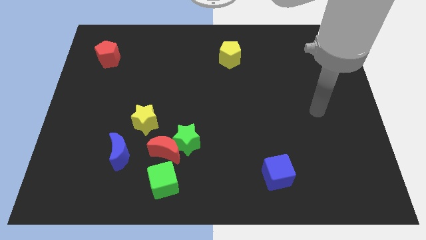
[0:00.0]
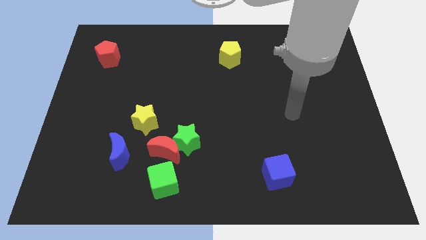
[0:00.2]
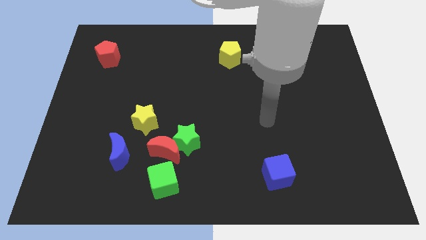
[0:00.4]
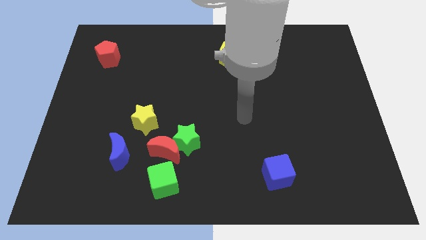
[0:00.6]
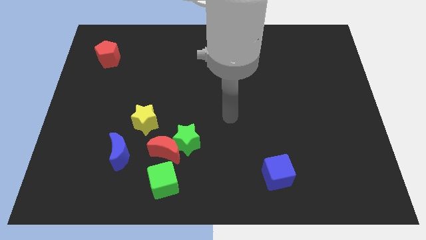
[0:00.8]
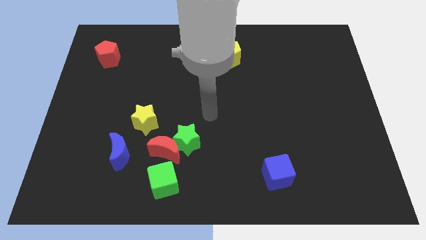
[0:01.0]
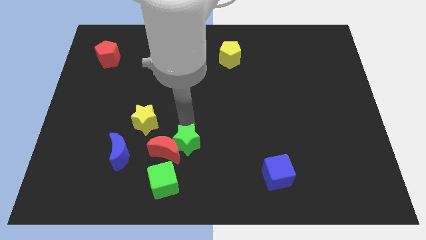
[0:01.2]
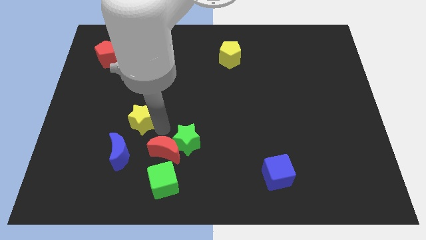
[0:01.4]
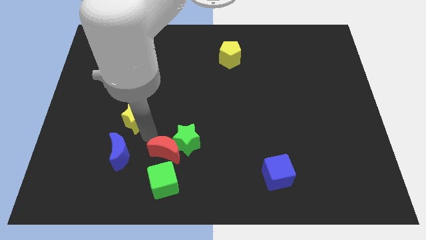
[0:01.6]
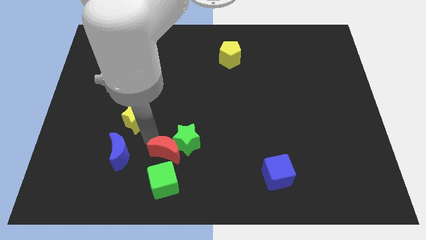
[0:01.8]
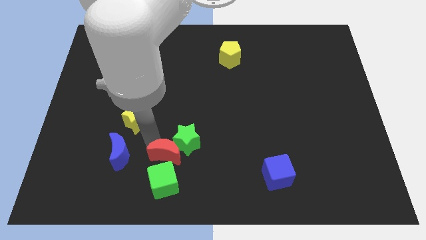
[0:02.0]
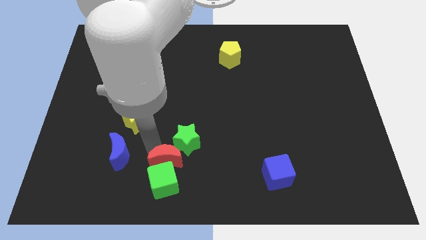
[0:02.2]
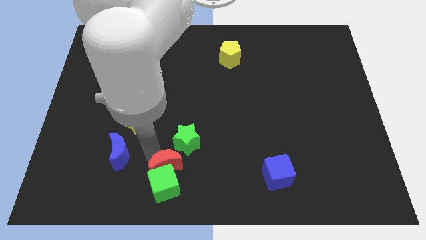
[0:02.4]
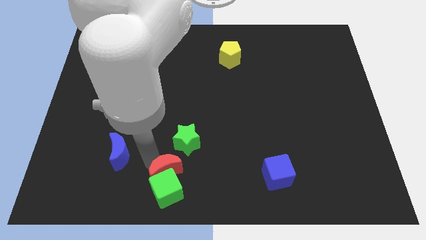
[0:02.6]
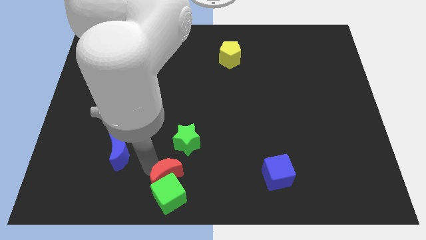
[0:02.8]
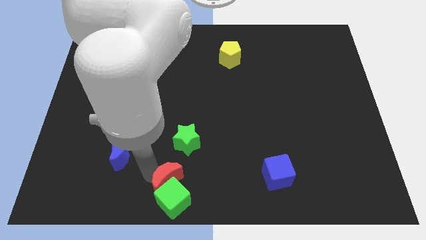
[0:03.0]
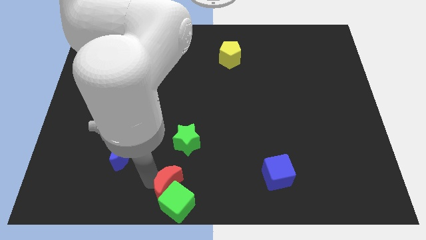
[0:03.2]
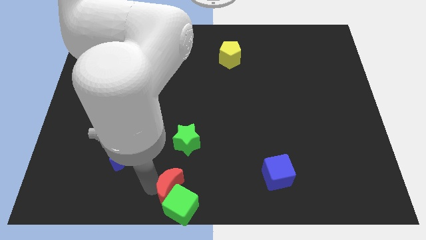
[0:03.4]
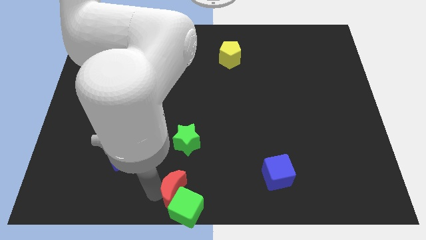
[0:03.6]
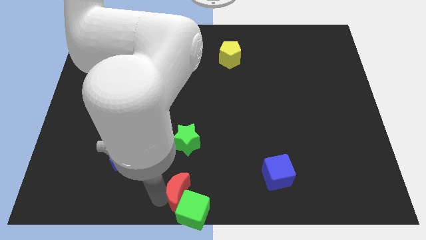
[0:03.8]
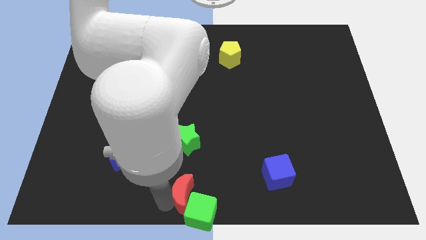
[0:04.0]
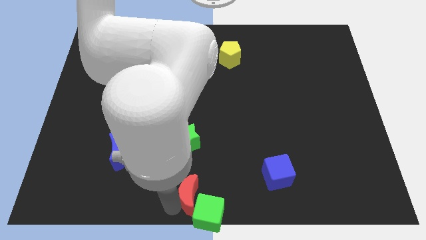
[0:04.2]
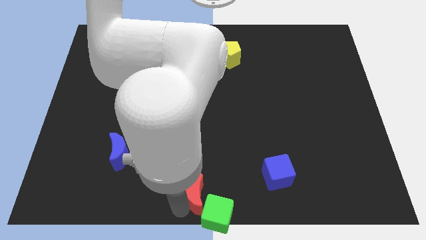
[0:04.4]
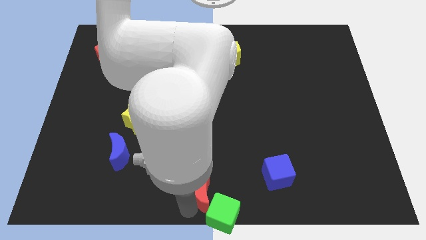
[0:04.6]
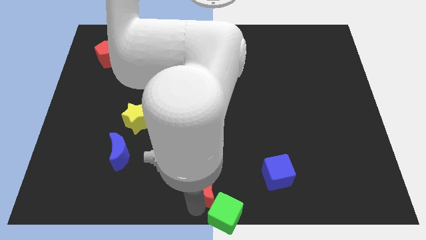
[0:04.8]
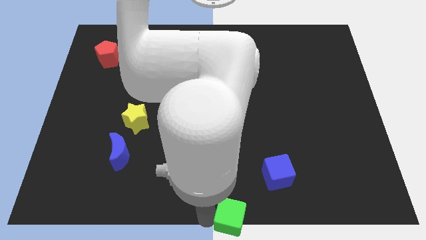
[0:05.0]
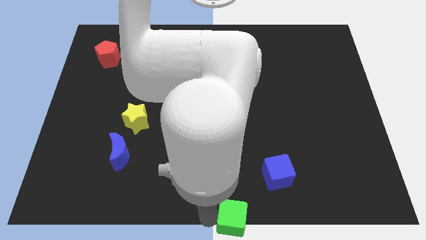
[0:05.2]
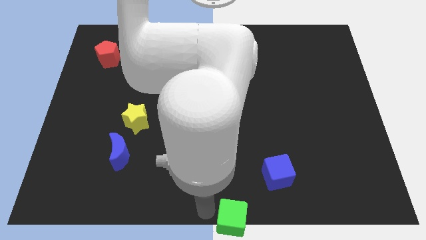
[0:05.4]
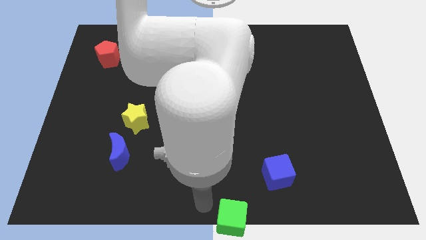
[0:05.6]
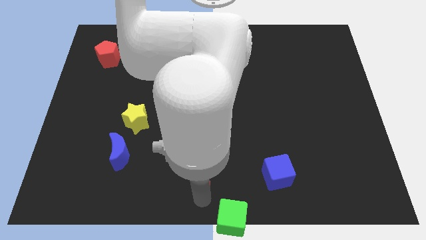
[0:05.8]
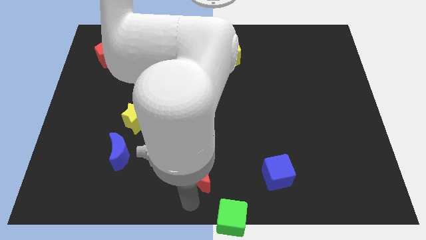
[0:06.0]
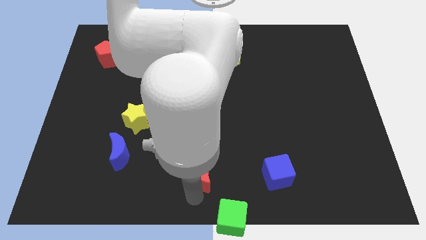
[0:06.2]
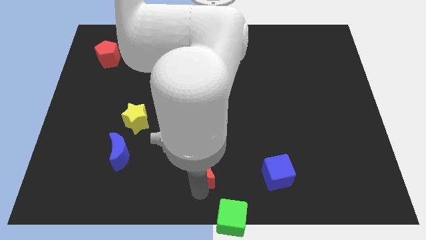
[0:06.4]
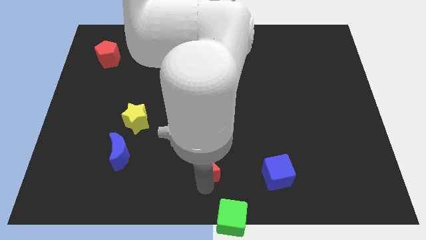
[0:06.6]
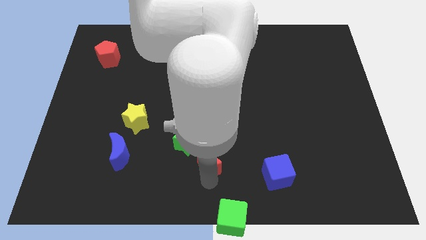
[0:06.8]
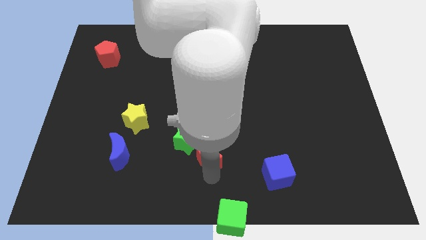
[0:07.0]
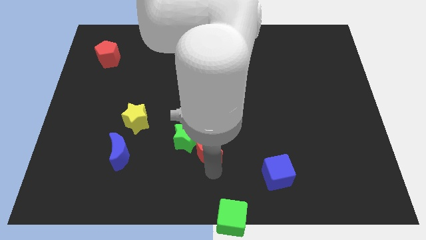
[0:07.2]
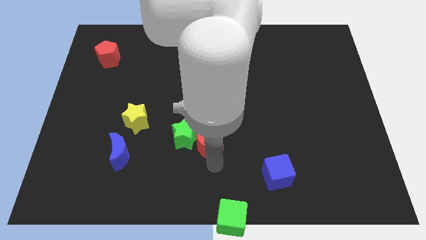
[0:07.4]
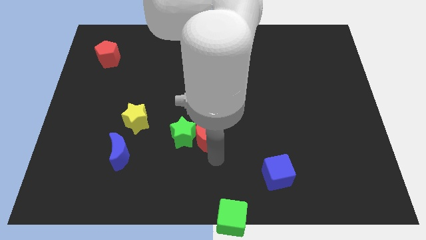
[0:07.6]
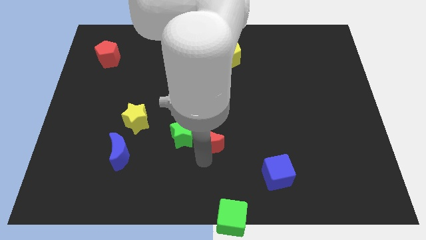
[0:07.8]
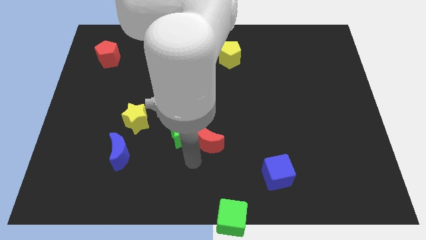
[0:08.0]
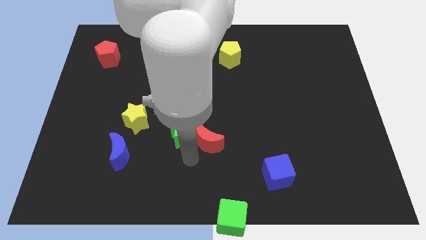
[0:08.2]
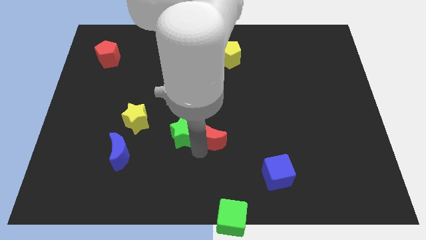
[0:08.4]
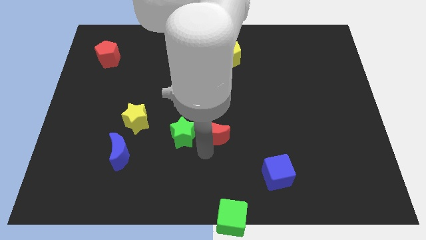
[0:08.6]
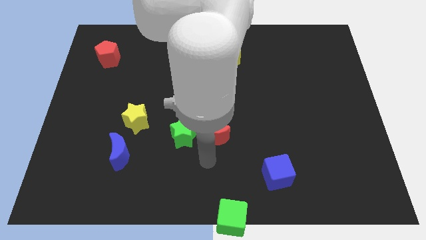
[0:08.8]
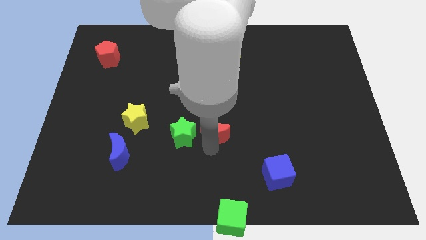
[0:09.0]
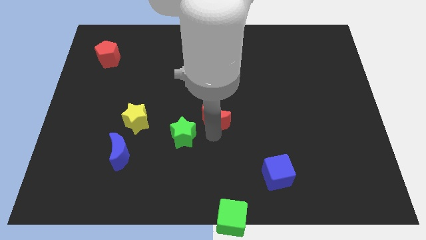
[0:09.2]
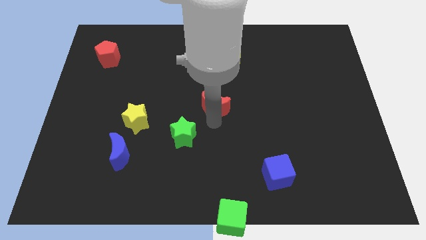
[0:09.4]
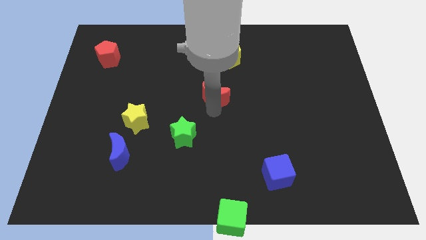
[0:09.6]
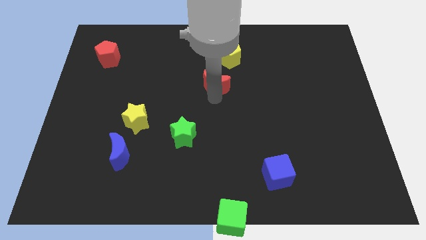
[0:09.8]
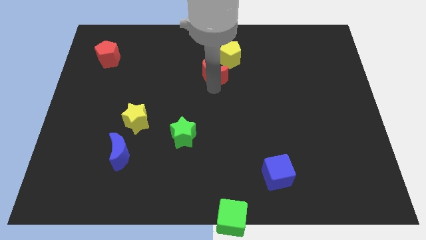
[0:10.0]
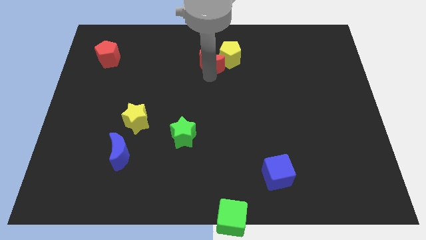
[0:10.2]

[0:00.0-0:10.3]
move the red moon to the yellow pentagon

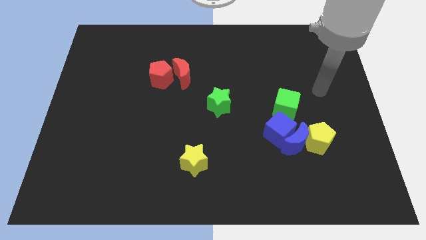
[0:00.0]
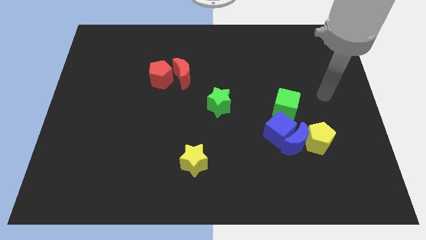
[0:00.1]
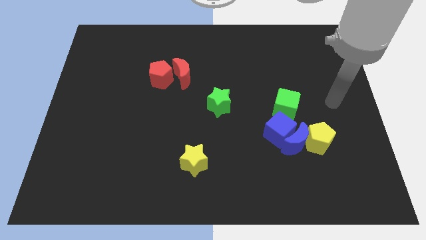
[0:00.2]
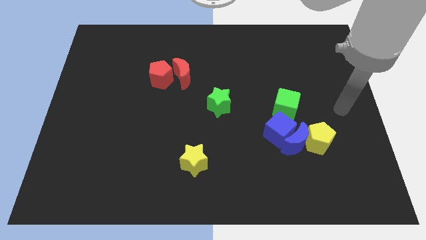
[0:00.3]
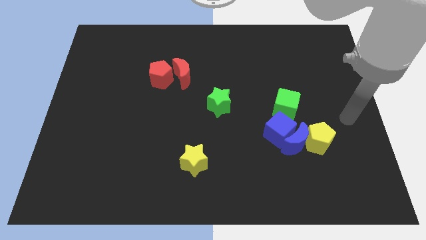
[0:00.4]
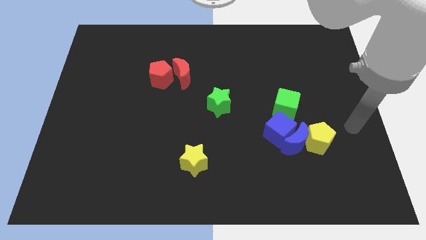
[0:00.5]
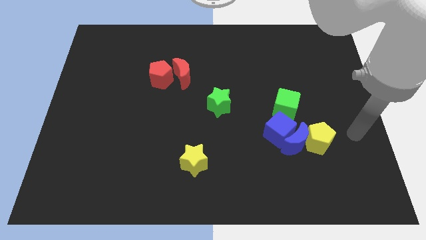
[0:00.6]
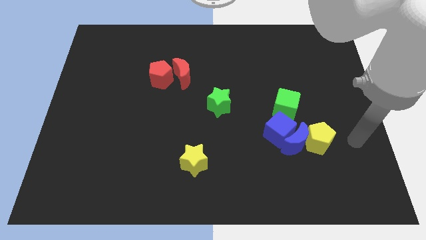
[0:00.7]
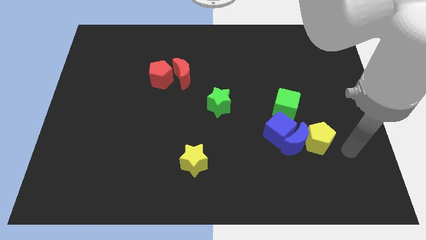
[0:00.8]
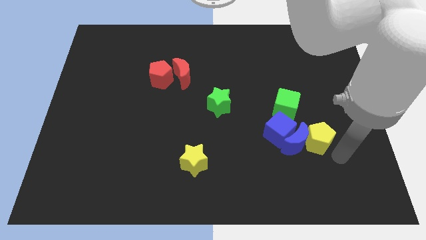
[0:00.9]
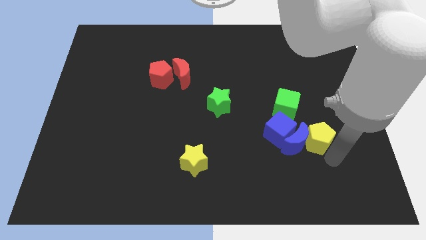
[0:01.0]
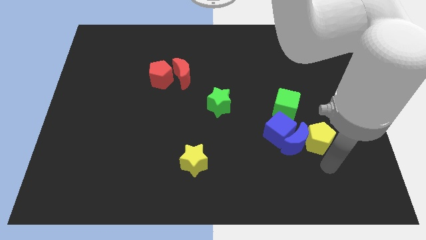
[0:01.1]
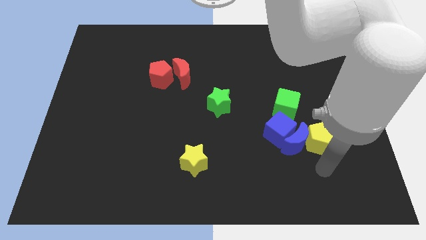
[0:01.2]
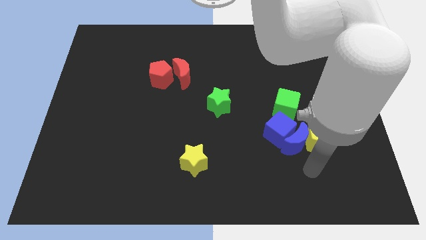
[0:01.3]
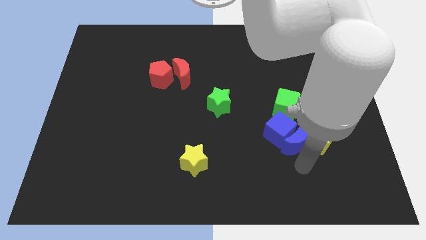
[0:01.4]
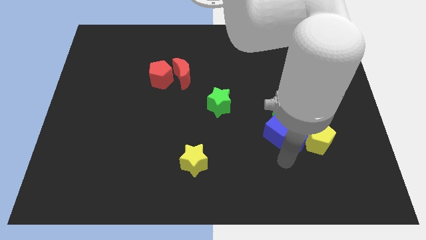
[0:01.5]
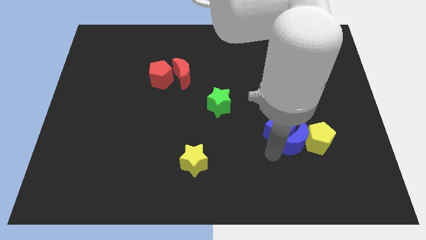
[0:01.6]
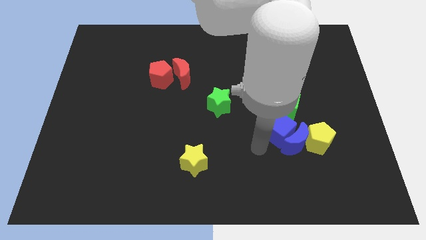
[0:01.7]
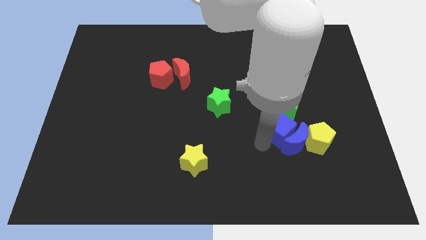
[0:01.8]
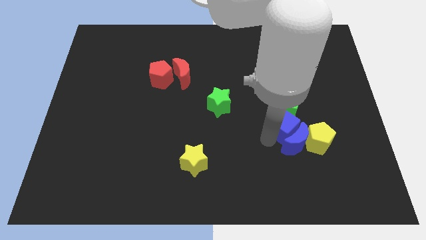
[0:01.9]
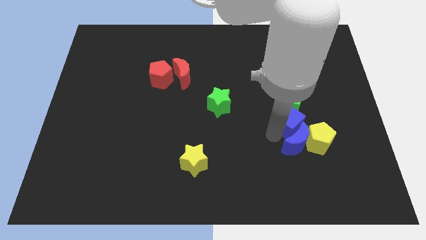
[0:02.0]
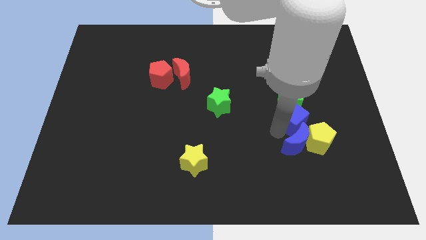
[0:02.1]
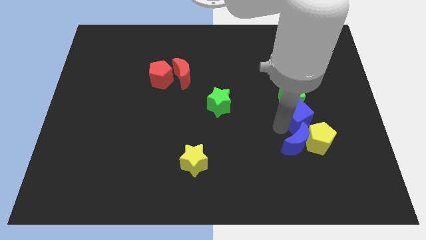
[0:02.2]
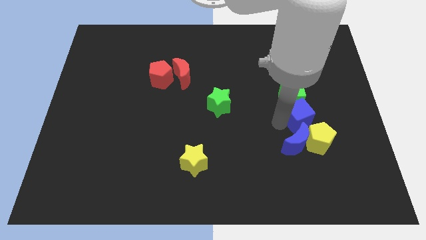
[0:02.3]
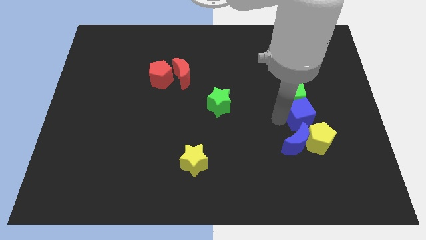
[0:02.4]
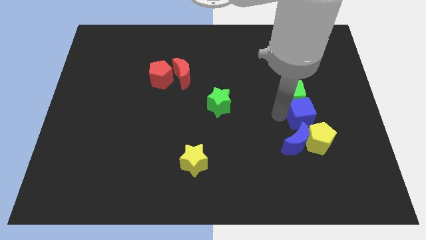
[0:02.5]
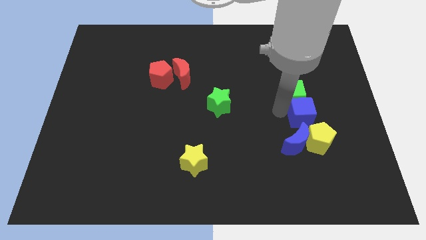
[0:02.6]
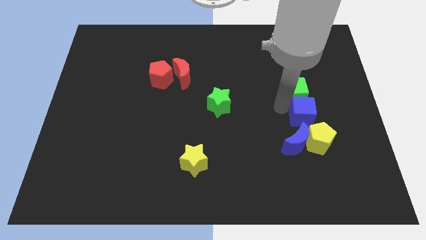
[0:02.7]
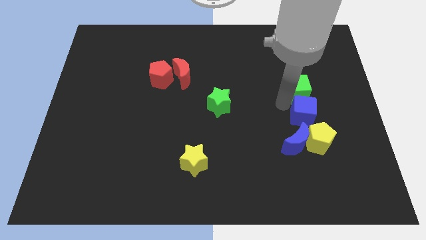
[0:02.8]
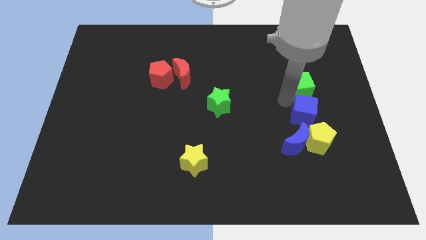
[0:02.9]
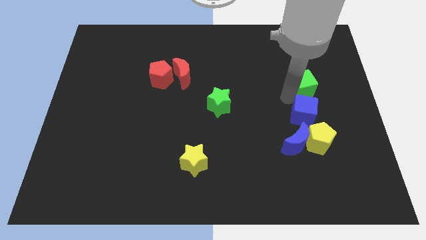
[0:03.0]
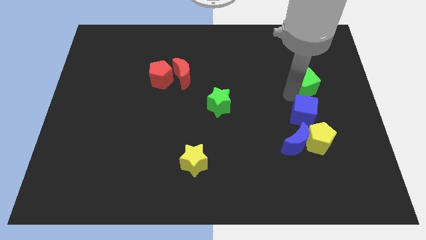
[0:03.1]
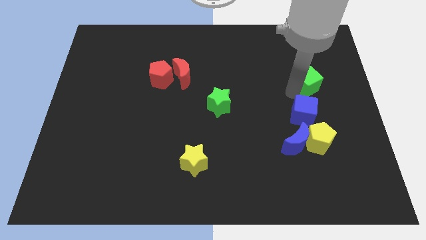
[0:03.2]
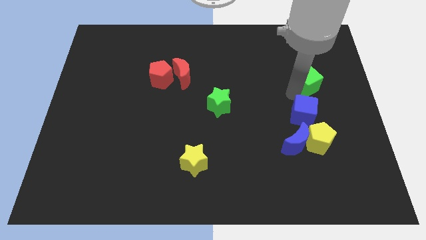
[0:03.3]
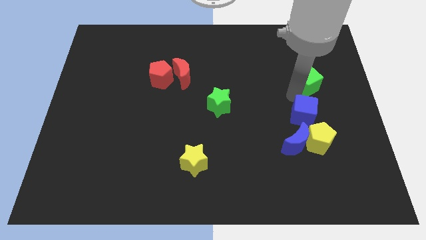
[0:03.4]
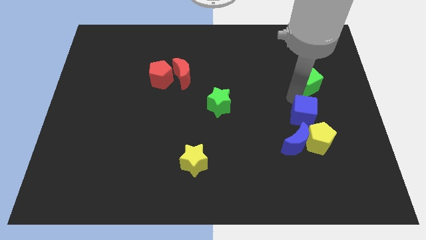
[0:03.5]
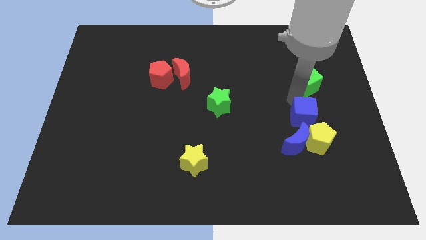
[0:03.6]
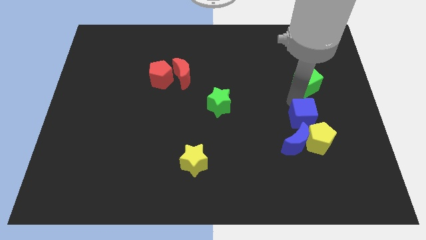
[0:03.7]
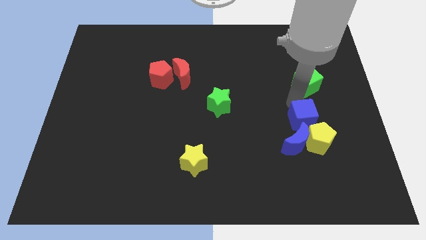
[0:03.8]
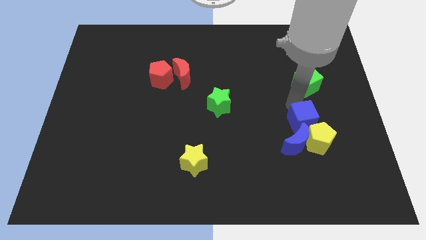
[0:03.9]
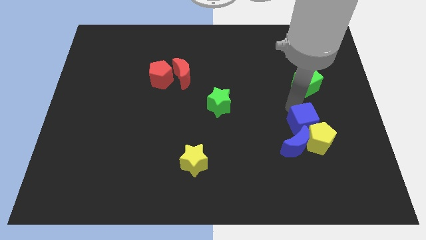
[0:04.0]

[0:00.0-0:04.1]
slide the blue cube towards the yellow pentagon
